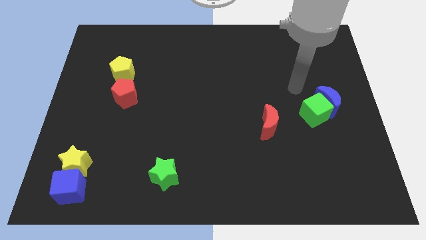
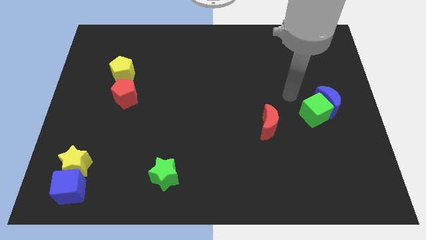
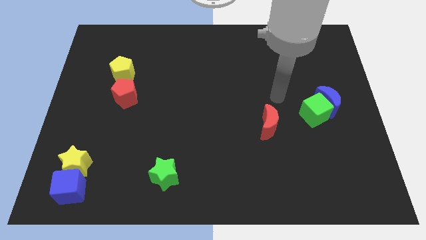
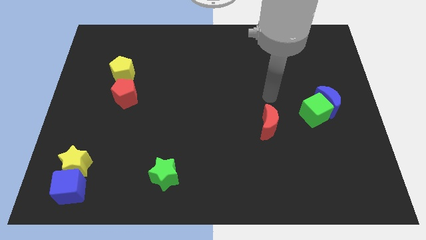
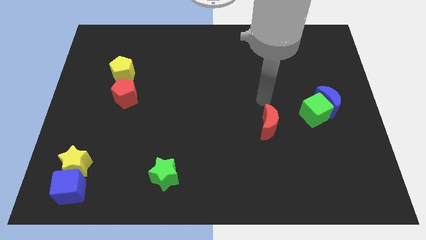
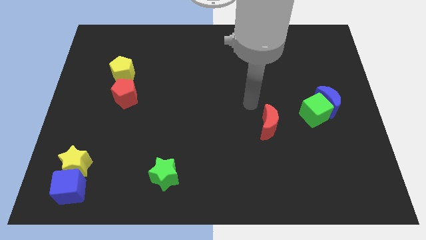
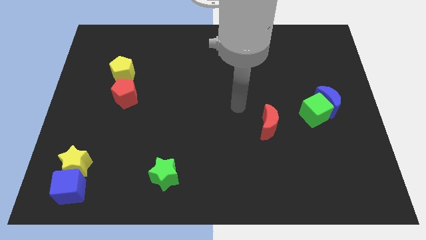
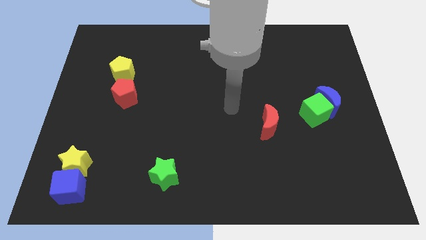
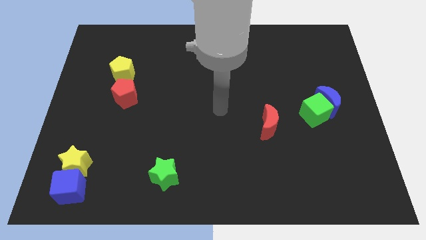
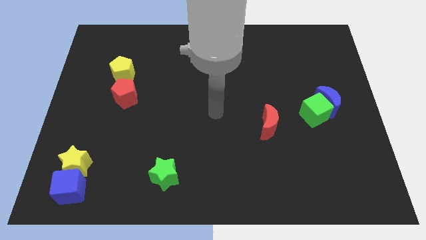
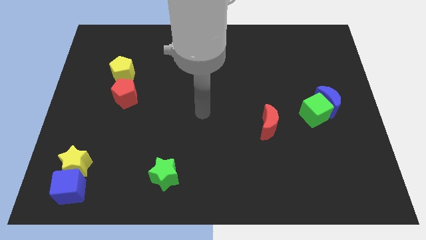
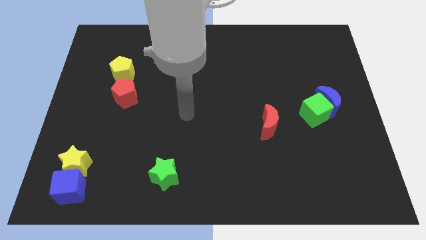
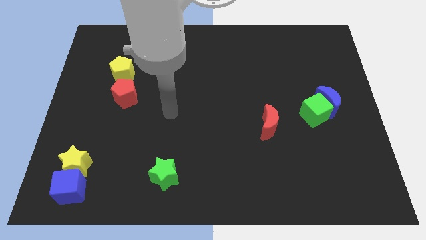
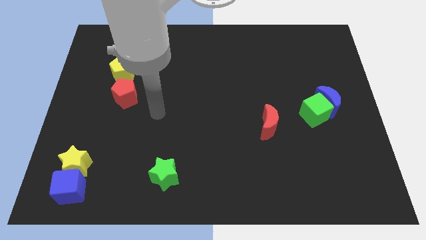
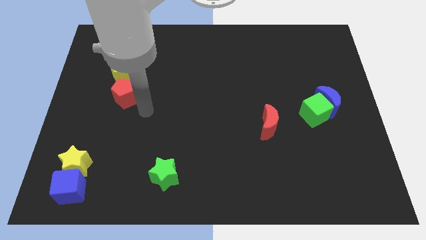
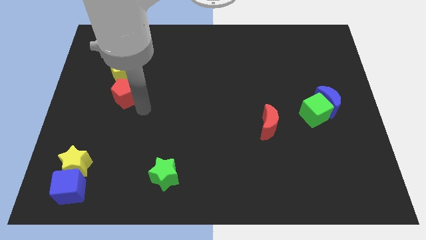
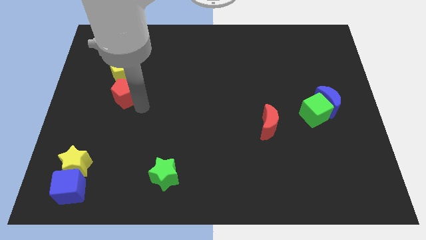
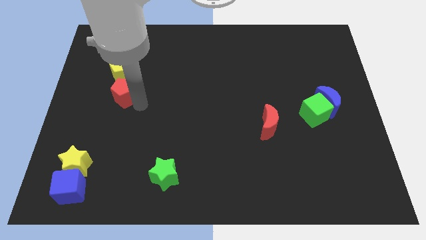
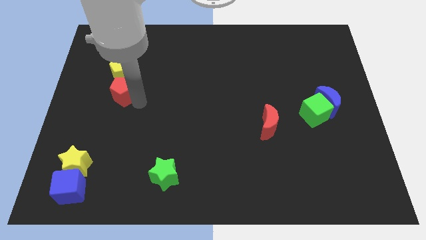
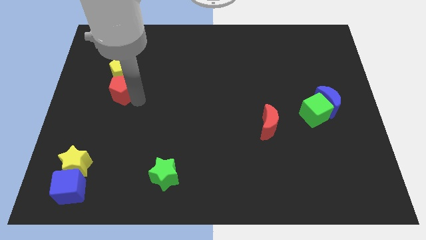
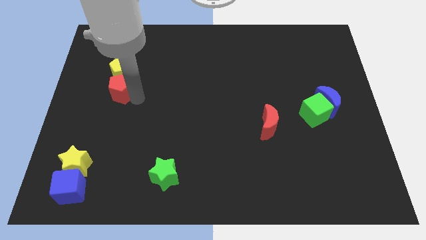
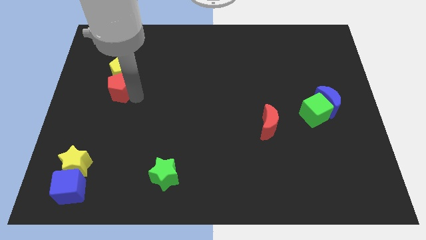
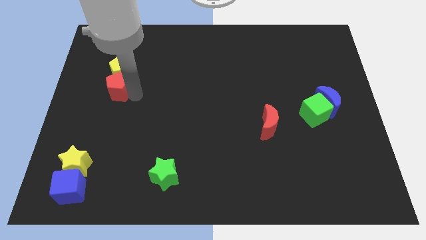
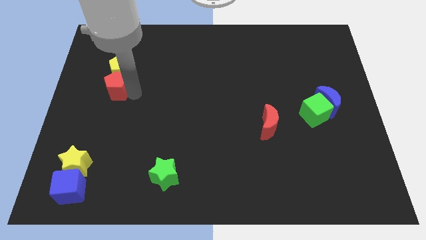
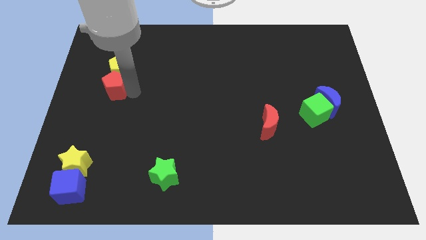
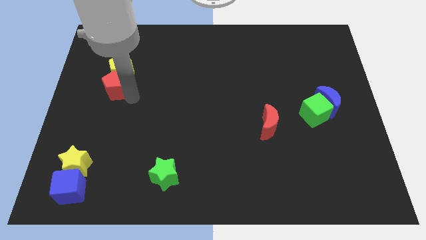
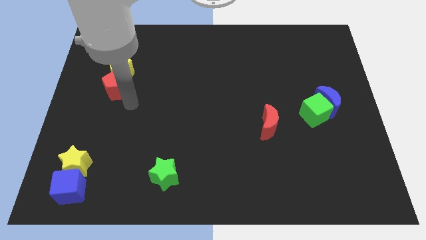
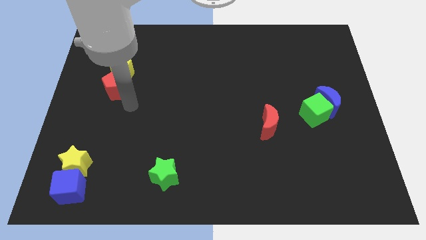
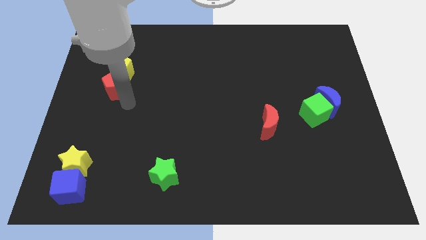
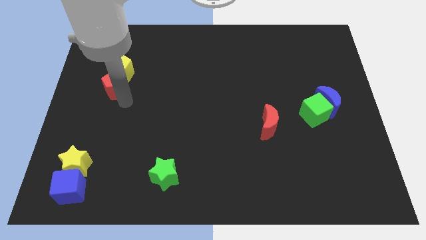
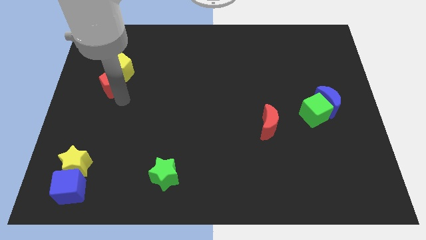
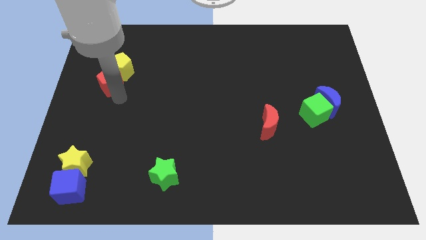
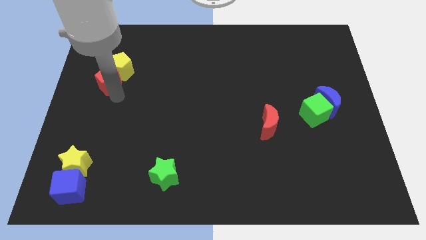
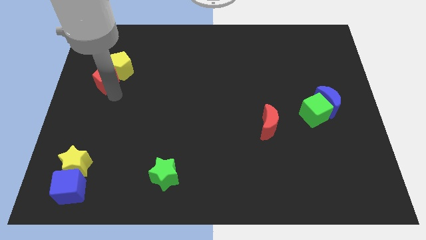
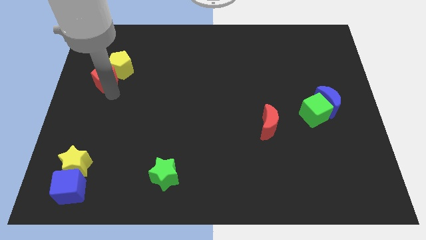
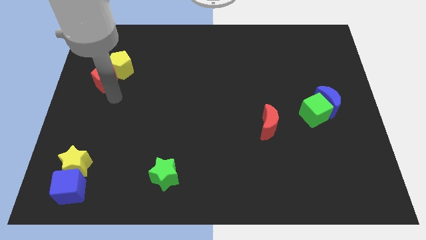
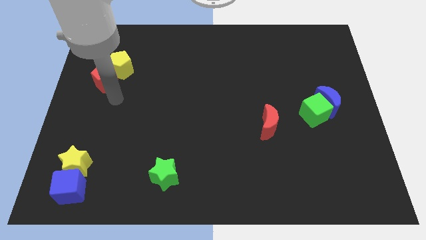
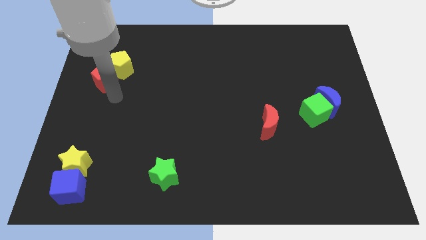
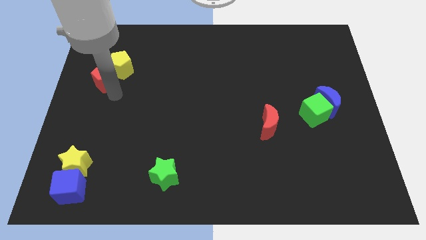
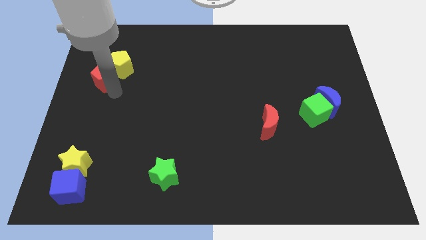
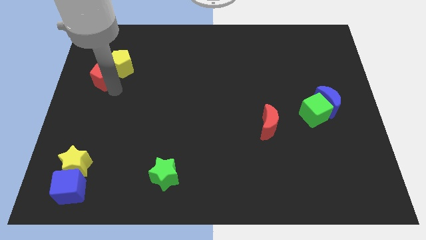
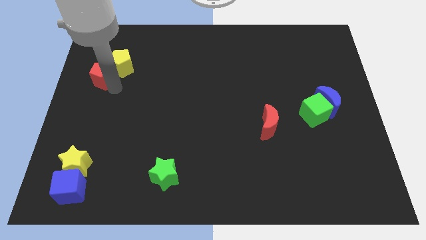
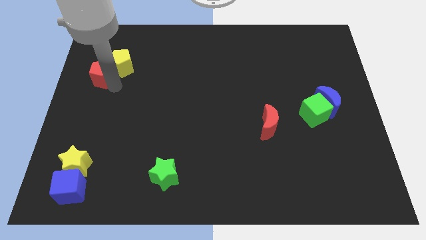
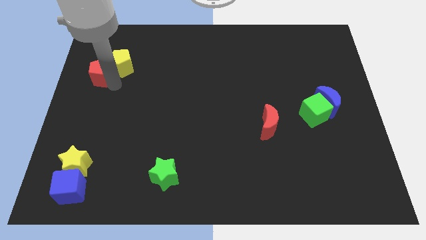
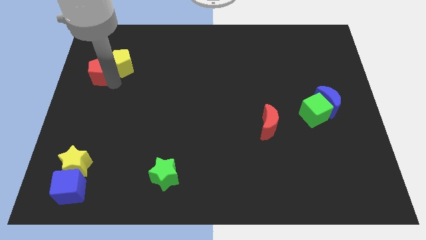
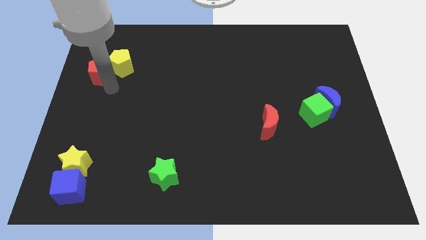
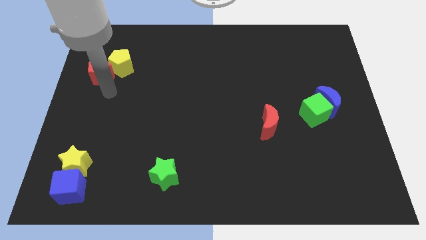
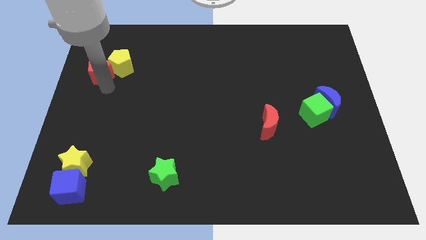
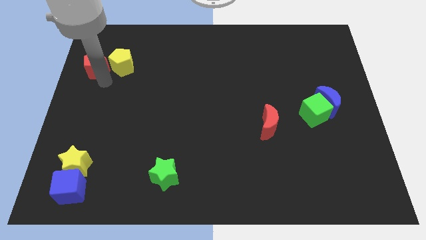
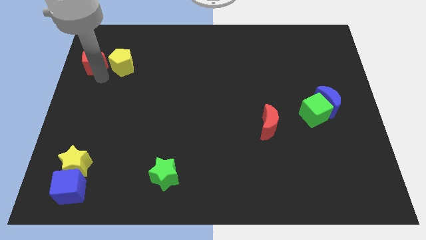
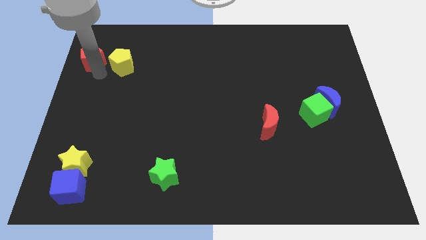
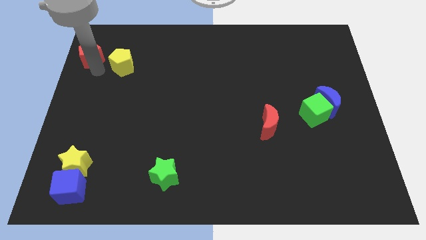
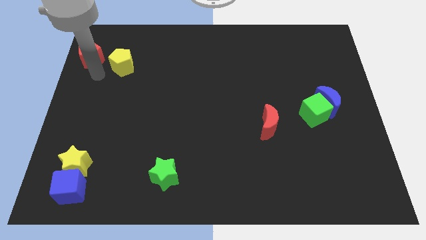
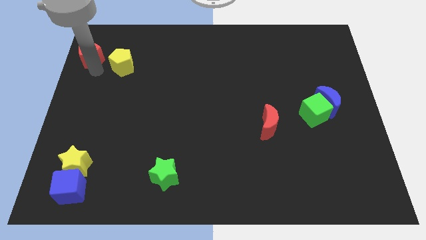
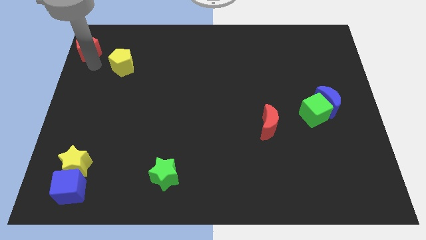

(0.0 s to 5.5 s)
move the red pentagon to the top left of the board
